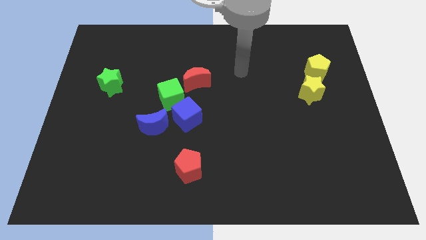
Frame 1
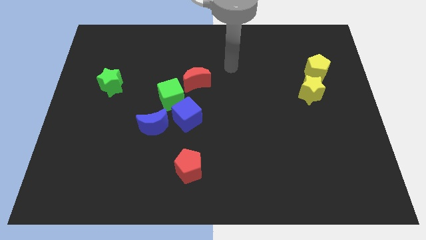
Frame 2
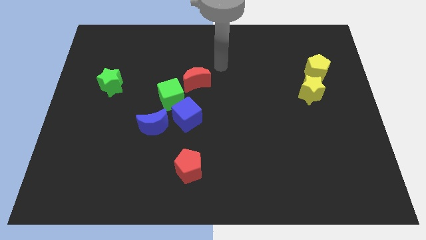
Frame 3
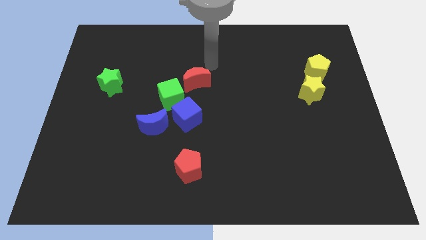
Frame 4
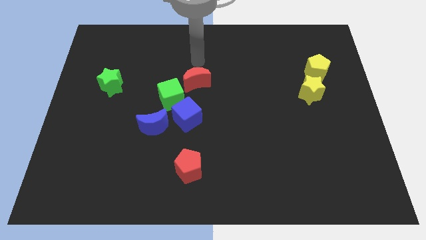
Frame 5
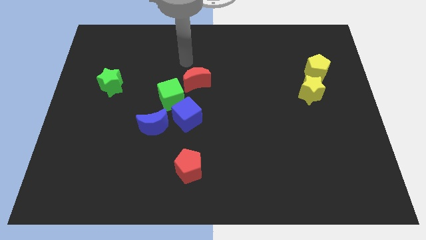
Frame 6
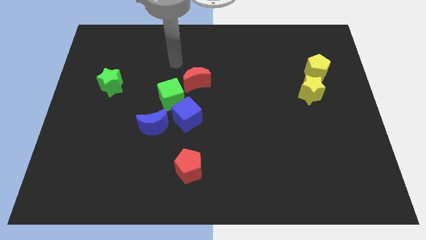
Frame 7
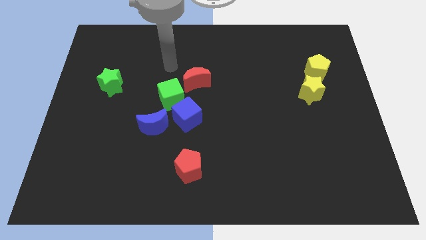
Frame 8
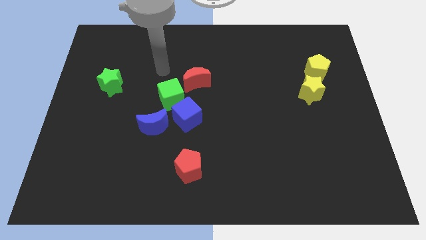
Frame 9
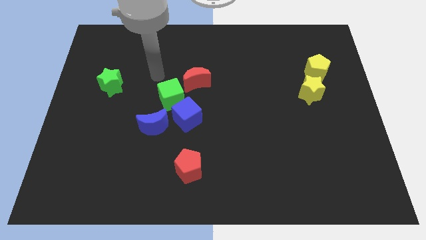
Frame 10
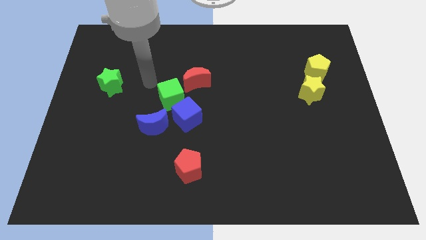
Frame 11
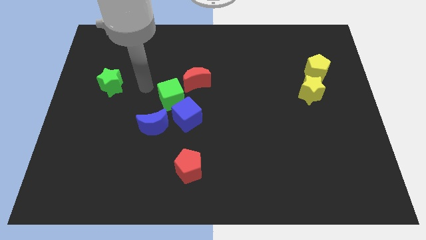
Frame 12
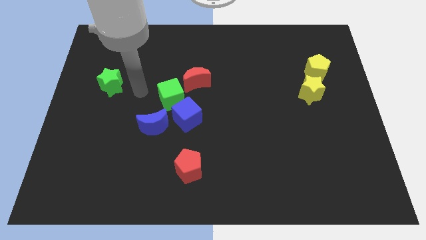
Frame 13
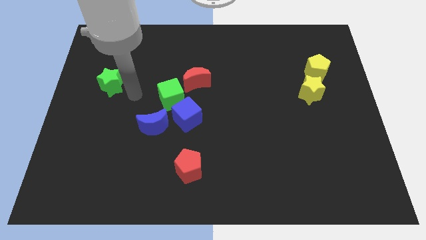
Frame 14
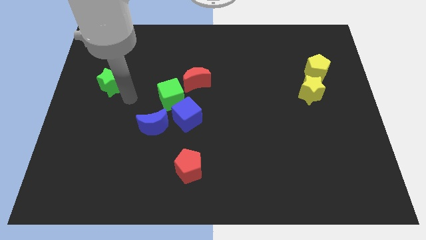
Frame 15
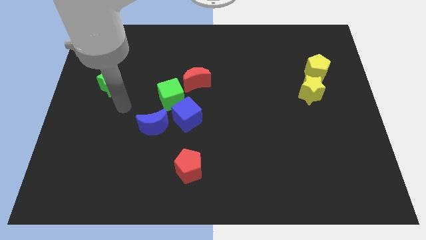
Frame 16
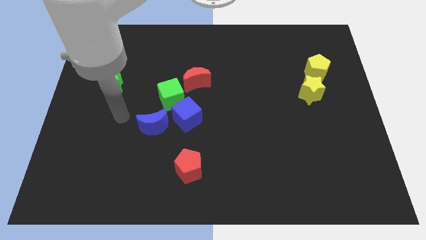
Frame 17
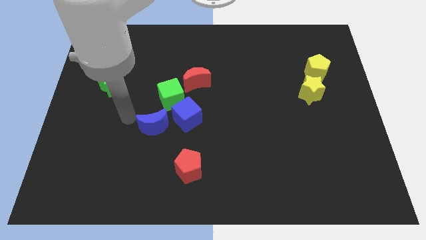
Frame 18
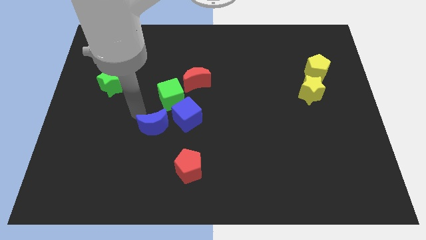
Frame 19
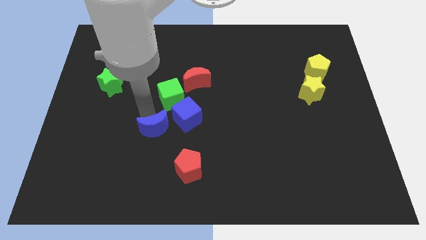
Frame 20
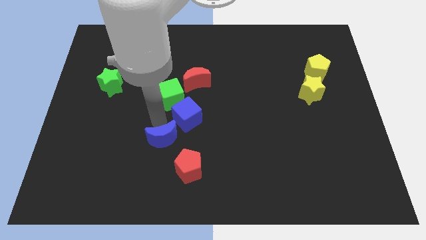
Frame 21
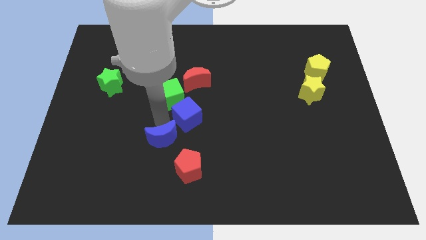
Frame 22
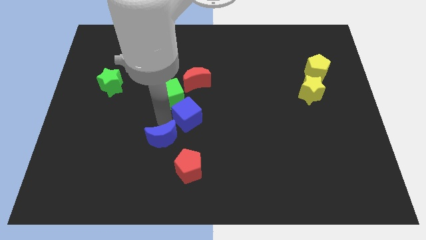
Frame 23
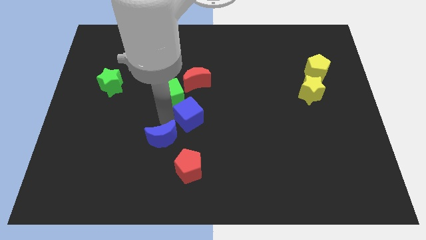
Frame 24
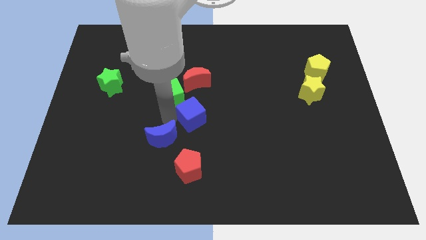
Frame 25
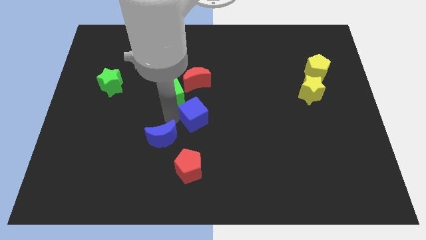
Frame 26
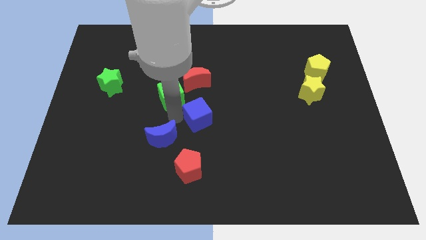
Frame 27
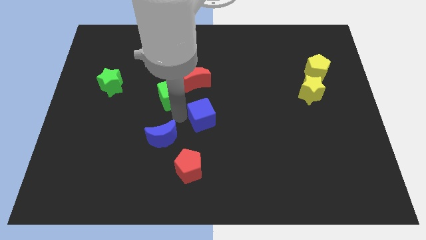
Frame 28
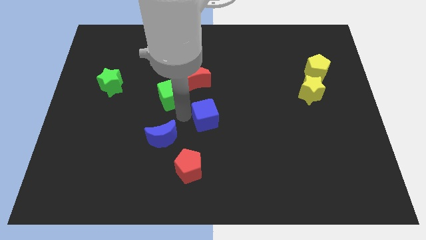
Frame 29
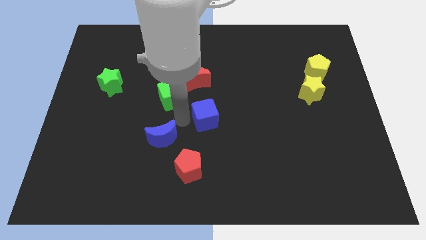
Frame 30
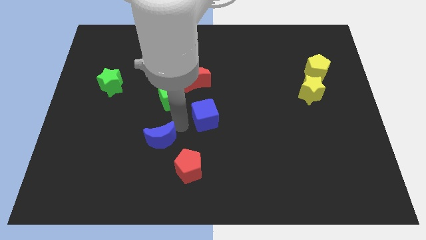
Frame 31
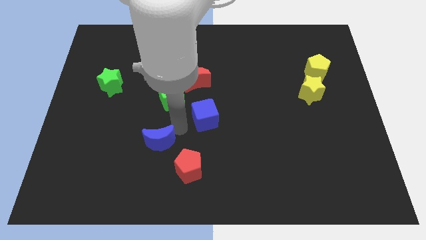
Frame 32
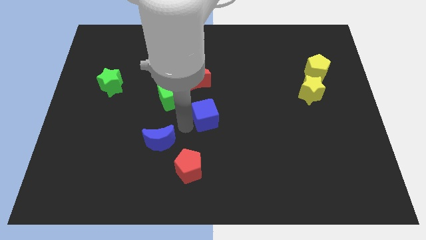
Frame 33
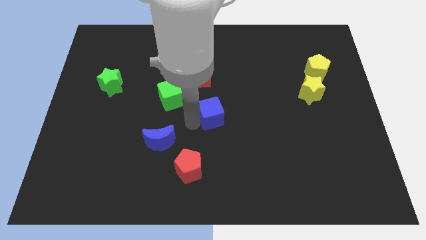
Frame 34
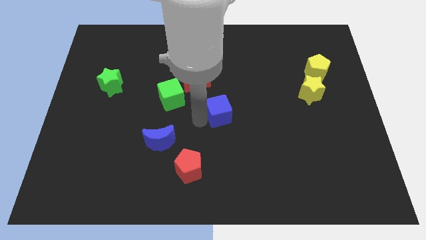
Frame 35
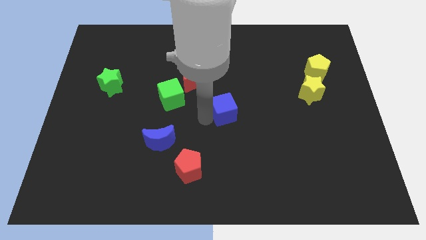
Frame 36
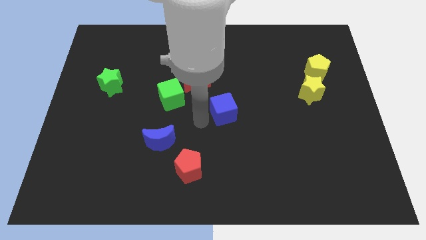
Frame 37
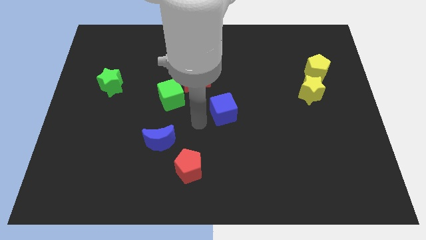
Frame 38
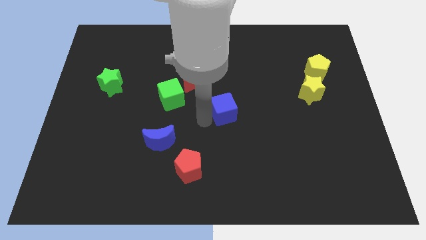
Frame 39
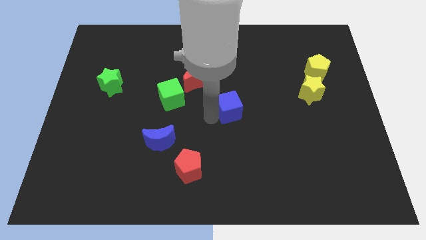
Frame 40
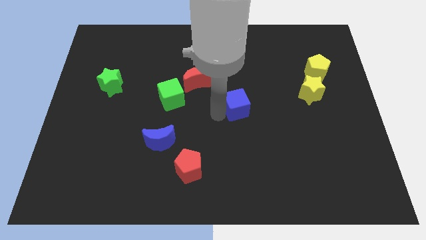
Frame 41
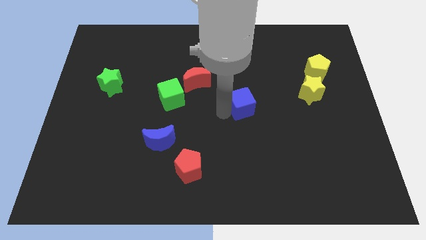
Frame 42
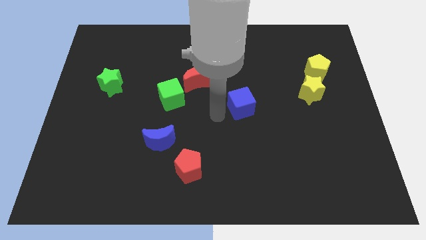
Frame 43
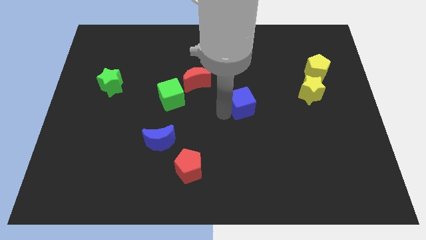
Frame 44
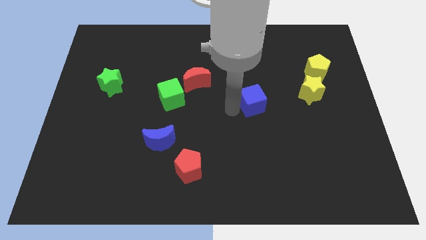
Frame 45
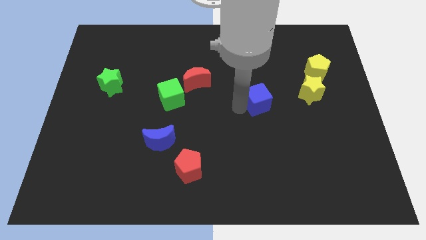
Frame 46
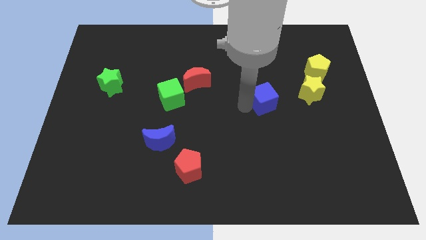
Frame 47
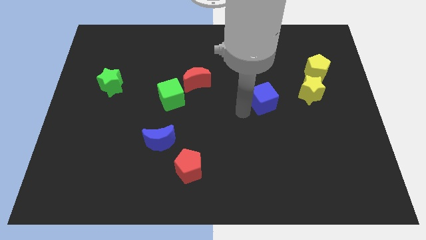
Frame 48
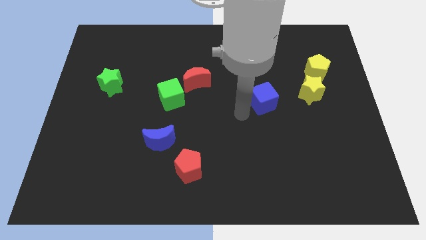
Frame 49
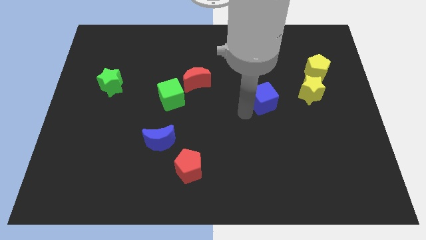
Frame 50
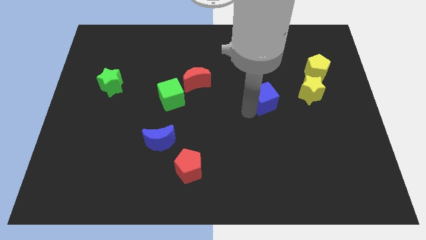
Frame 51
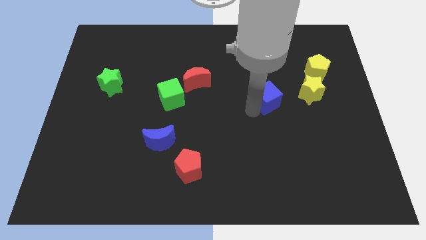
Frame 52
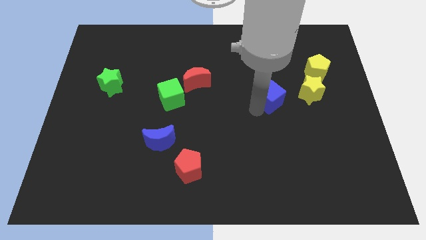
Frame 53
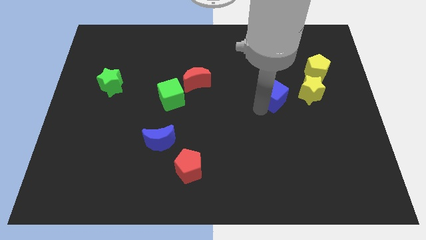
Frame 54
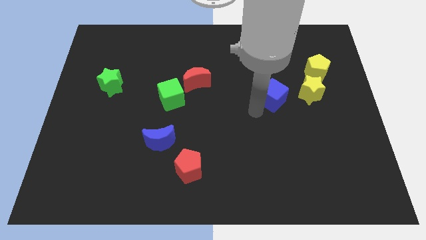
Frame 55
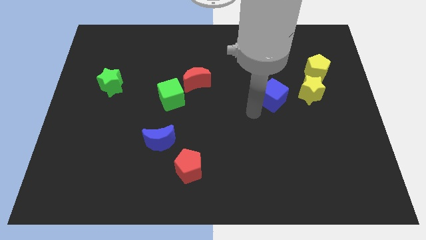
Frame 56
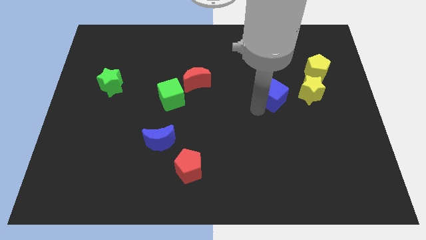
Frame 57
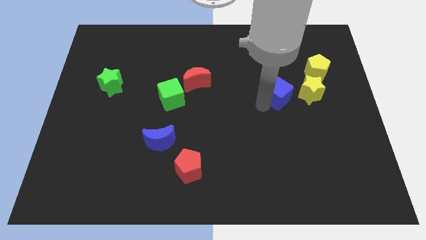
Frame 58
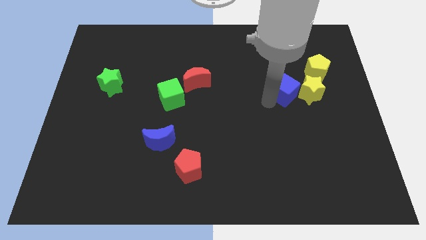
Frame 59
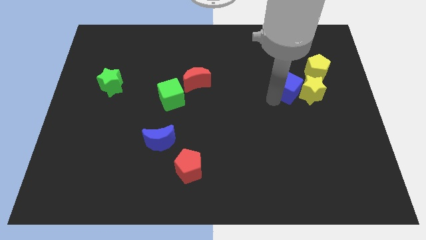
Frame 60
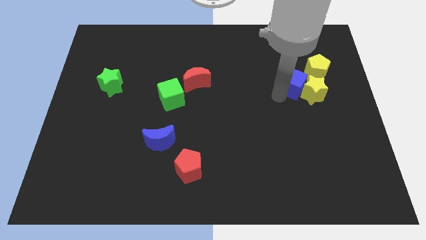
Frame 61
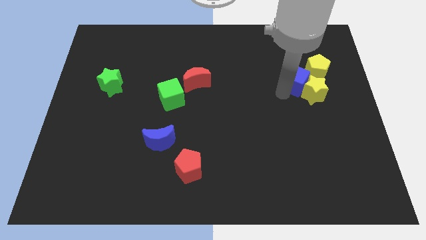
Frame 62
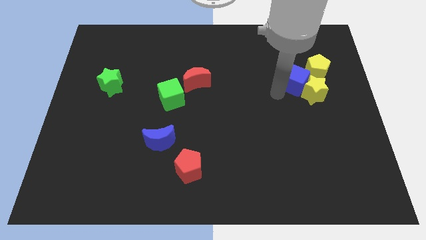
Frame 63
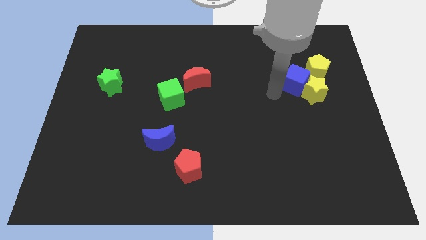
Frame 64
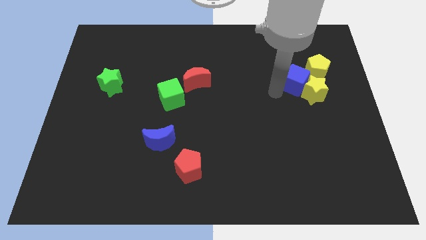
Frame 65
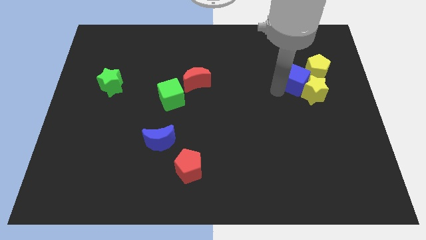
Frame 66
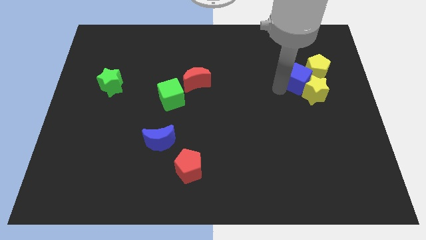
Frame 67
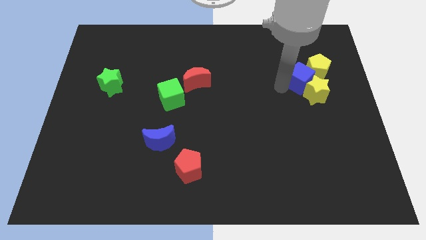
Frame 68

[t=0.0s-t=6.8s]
put the blue cube towards the yellow pentagon

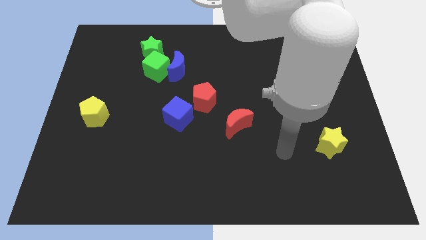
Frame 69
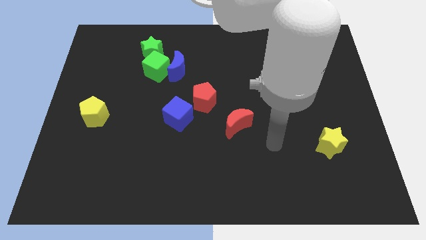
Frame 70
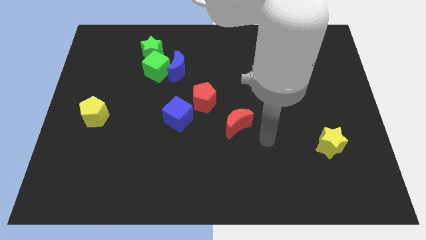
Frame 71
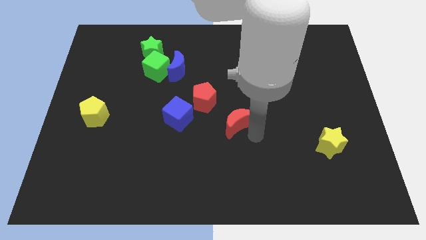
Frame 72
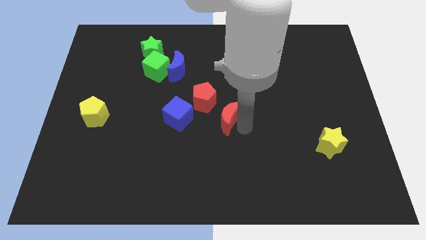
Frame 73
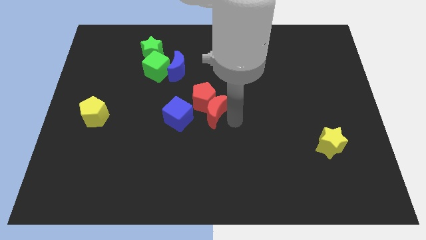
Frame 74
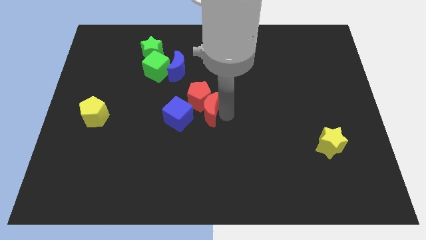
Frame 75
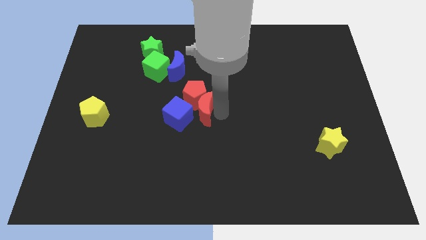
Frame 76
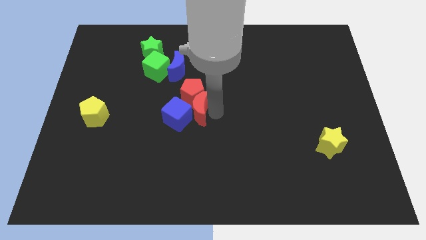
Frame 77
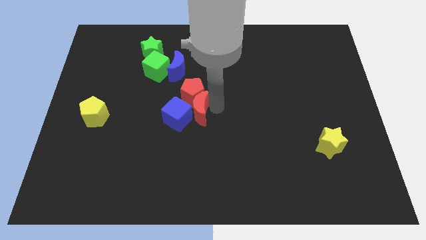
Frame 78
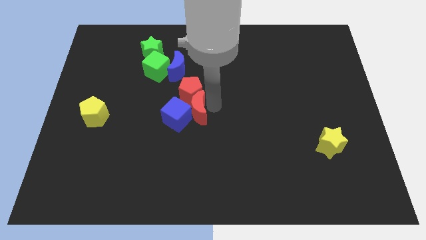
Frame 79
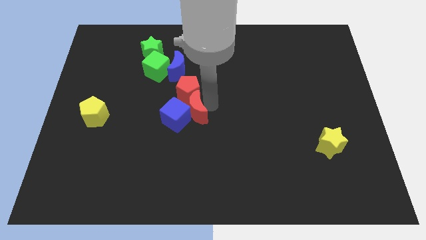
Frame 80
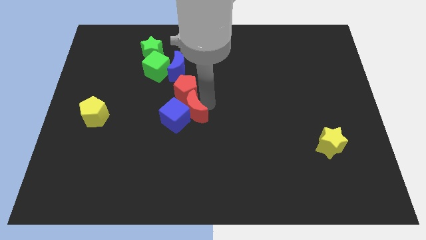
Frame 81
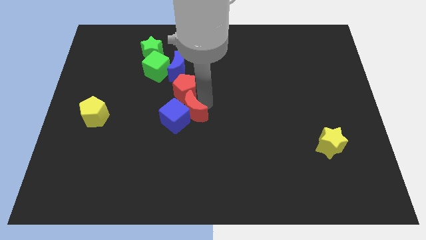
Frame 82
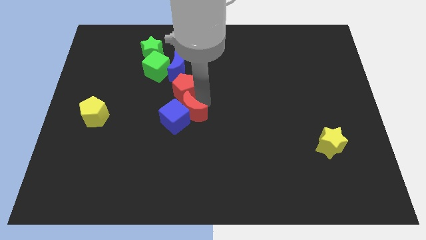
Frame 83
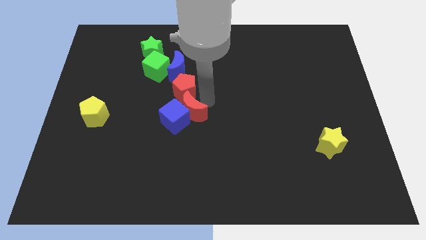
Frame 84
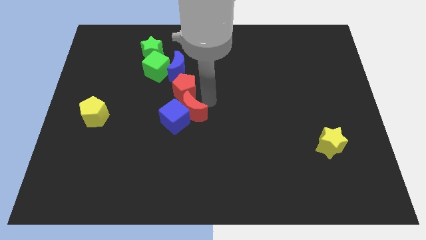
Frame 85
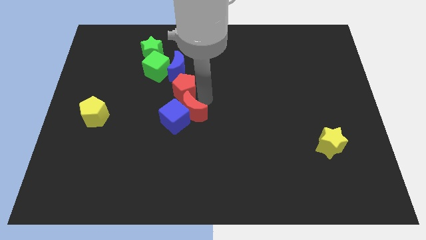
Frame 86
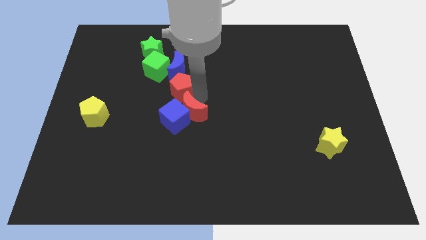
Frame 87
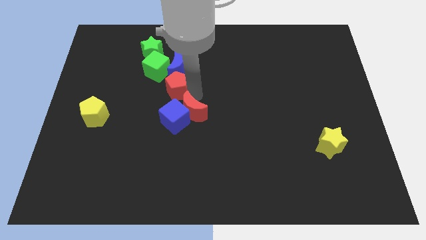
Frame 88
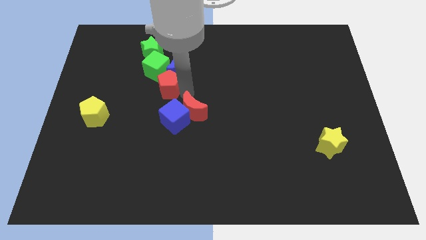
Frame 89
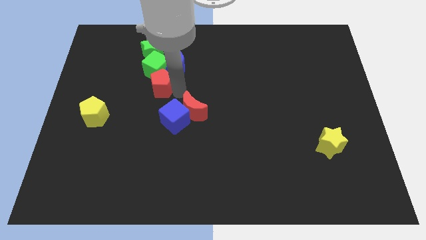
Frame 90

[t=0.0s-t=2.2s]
slide the red pentagon towards the green cube
